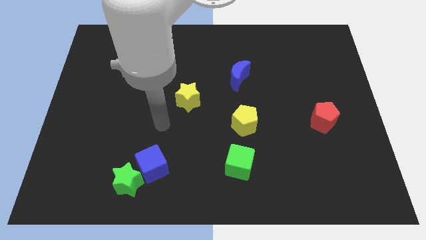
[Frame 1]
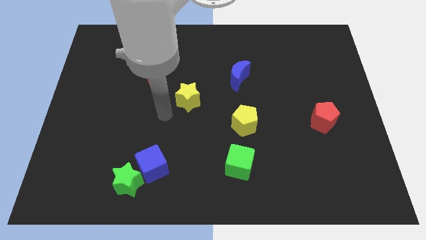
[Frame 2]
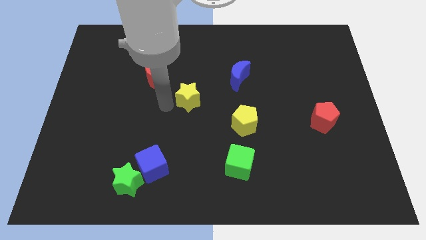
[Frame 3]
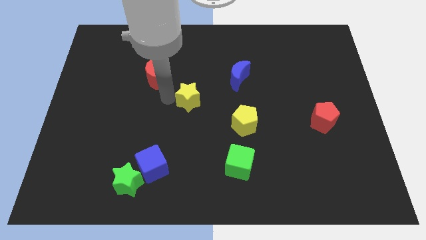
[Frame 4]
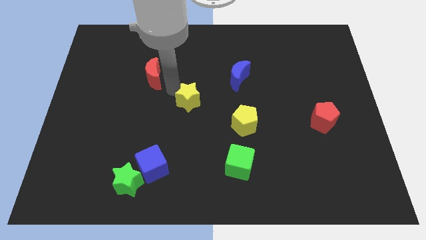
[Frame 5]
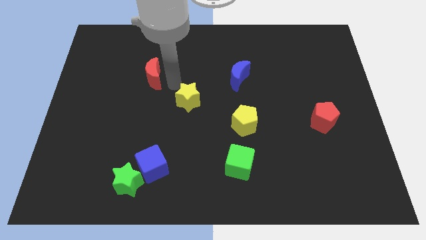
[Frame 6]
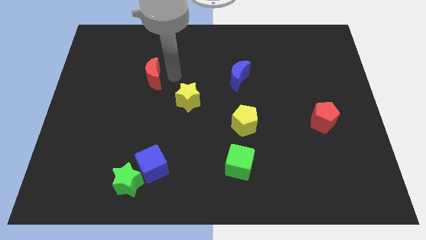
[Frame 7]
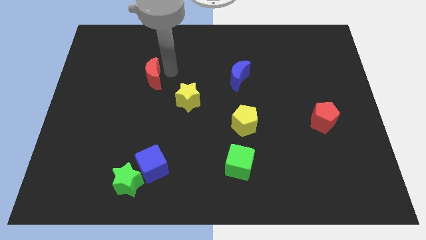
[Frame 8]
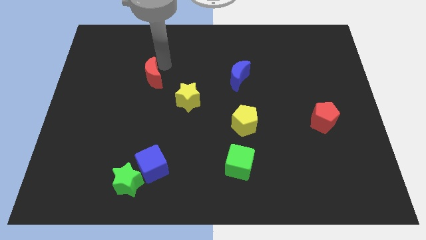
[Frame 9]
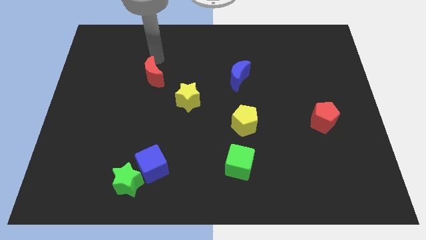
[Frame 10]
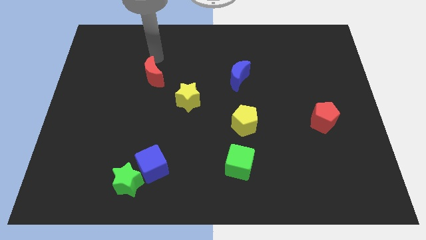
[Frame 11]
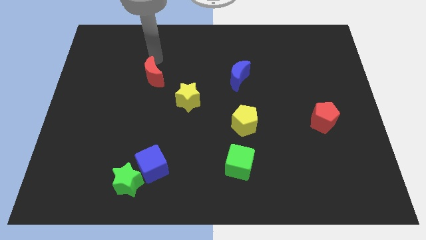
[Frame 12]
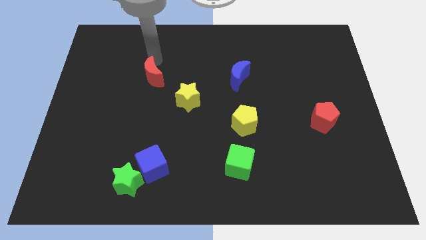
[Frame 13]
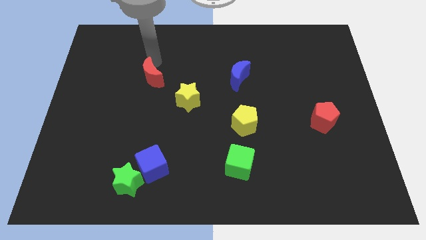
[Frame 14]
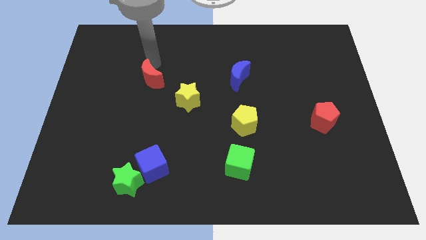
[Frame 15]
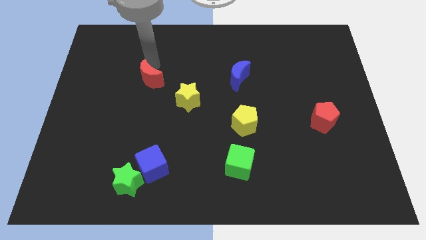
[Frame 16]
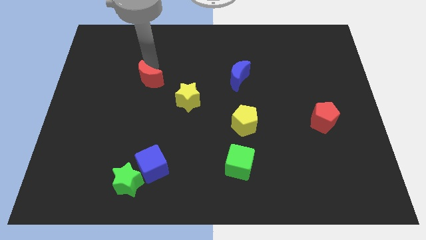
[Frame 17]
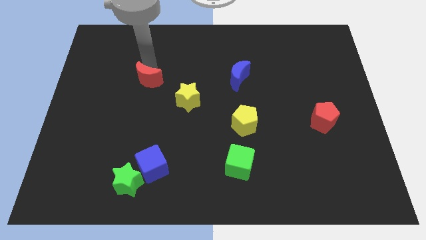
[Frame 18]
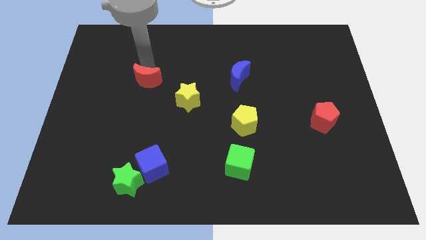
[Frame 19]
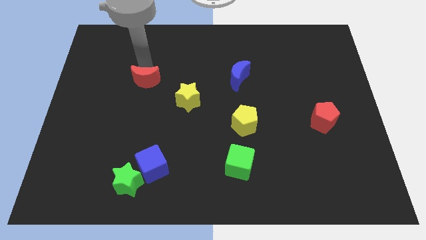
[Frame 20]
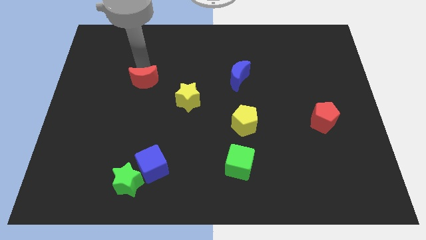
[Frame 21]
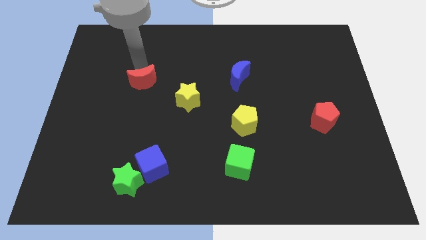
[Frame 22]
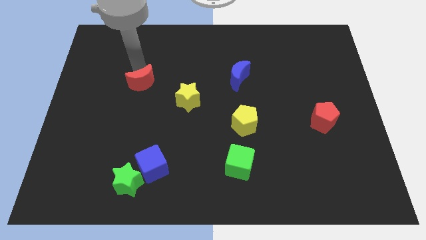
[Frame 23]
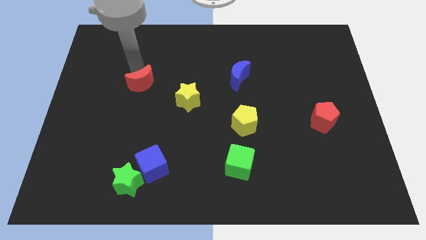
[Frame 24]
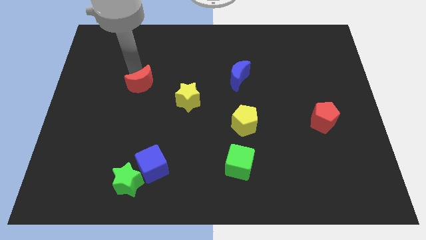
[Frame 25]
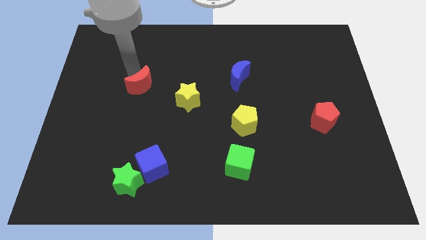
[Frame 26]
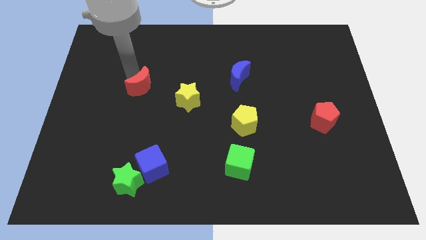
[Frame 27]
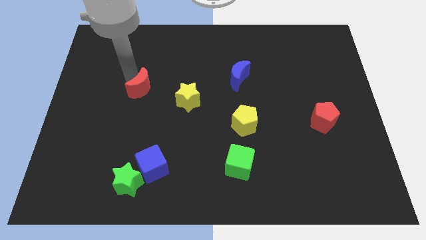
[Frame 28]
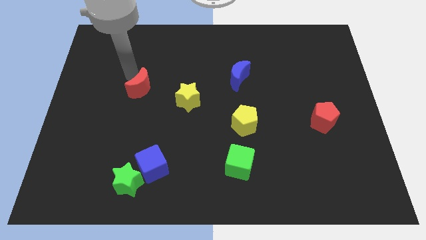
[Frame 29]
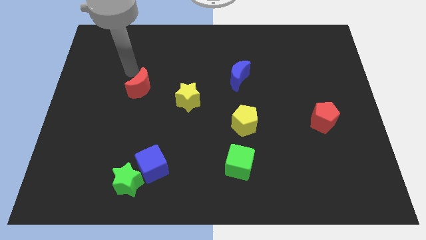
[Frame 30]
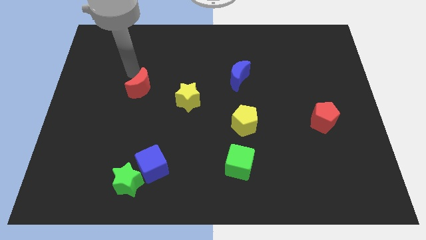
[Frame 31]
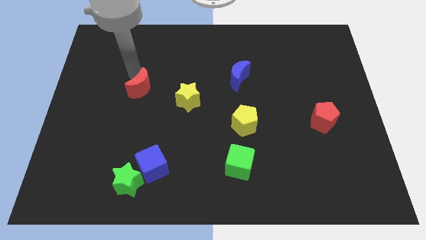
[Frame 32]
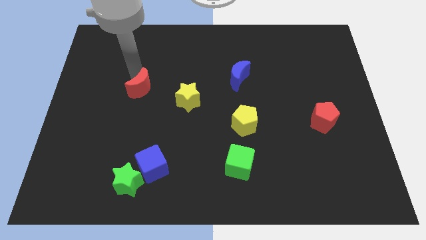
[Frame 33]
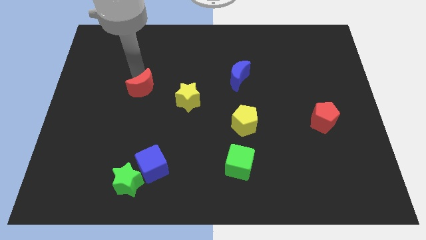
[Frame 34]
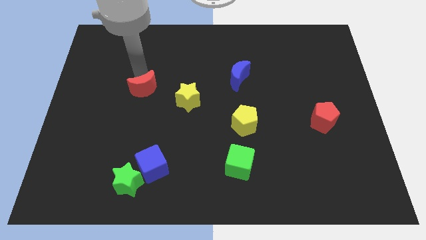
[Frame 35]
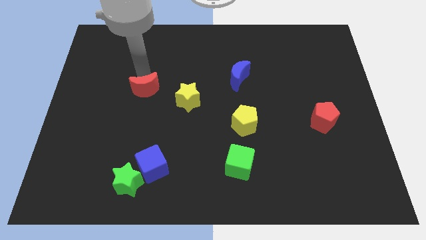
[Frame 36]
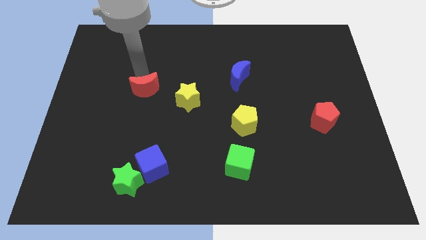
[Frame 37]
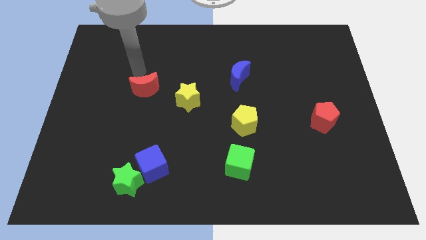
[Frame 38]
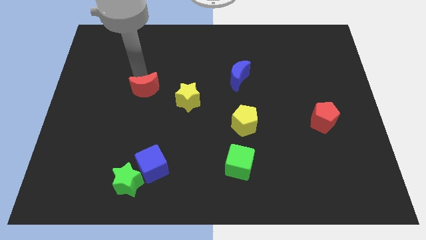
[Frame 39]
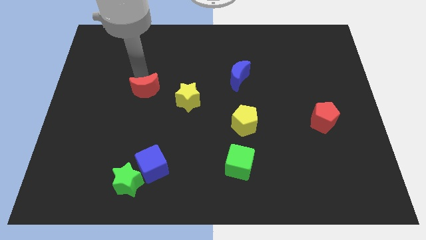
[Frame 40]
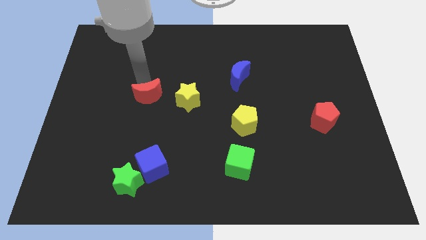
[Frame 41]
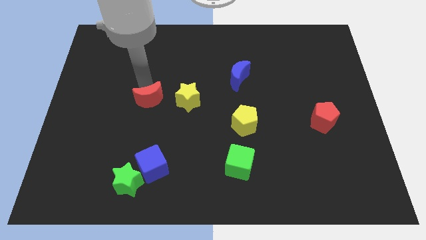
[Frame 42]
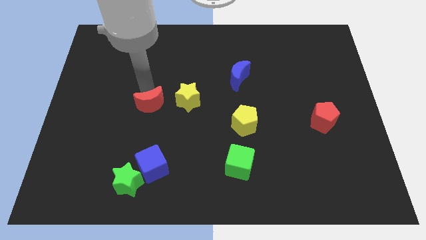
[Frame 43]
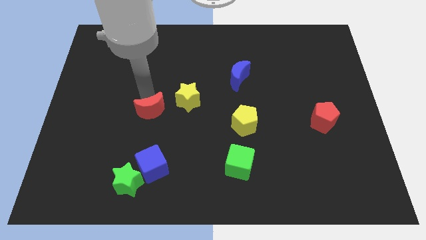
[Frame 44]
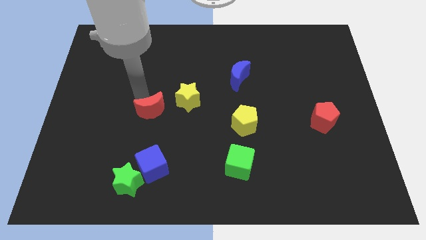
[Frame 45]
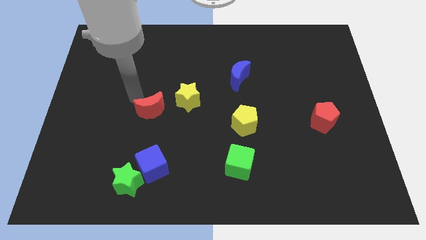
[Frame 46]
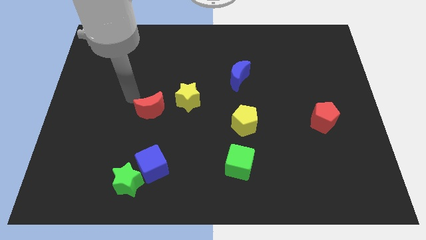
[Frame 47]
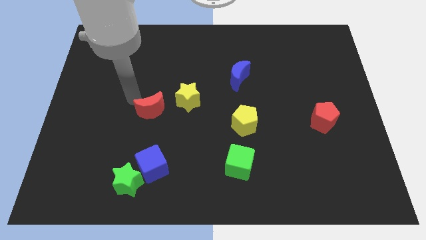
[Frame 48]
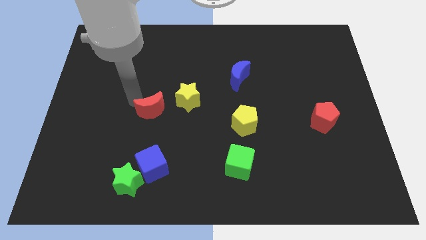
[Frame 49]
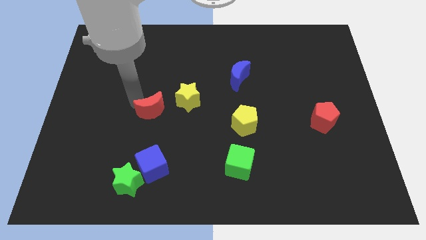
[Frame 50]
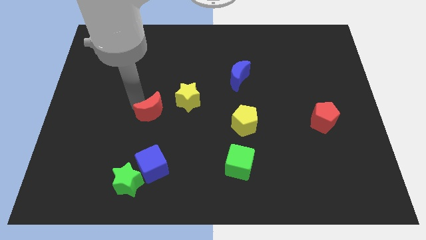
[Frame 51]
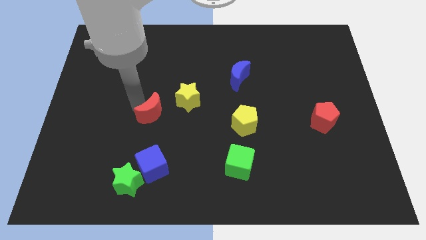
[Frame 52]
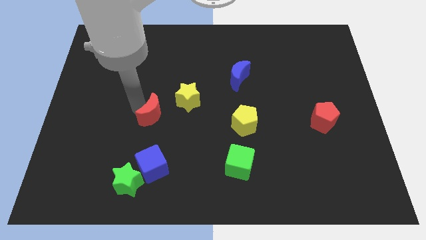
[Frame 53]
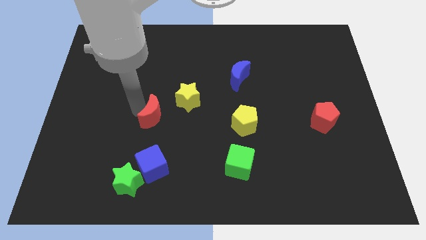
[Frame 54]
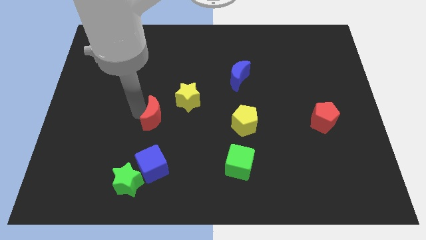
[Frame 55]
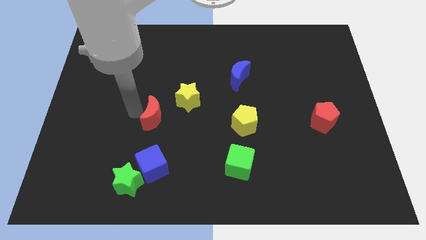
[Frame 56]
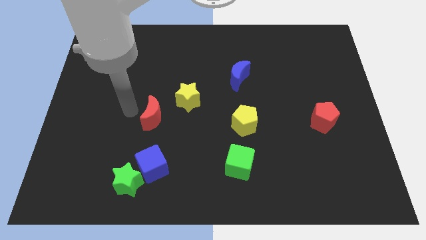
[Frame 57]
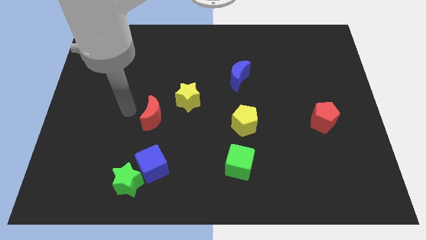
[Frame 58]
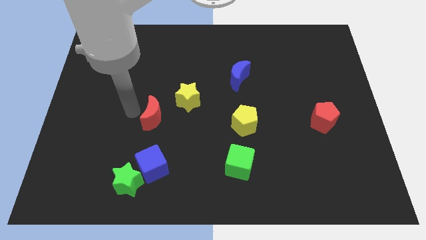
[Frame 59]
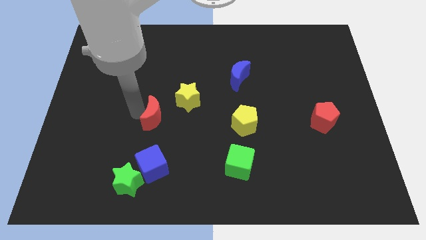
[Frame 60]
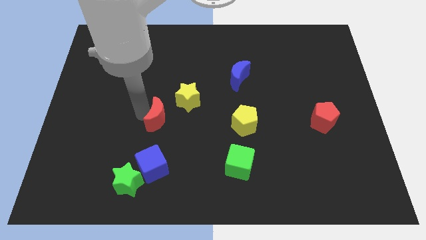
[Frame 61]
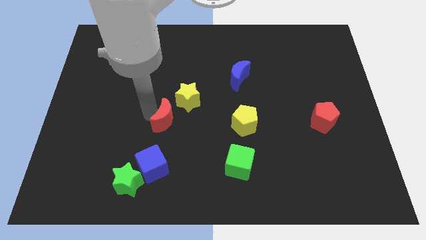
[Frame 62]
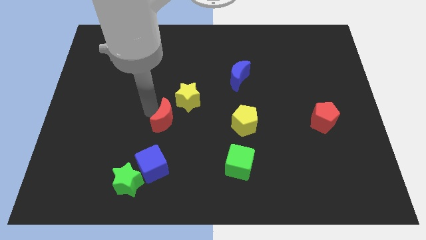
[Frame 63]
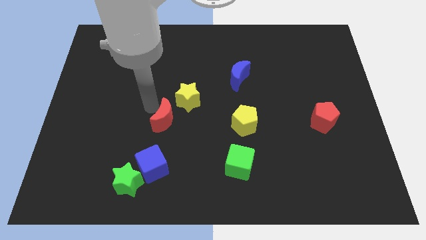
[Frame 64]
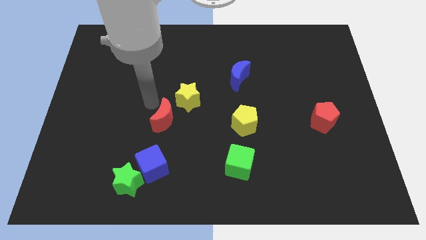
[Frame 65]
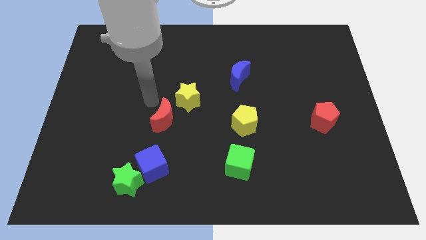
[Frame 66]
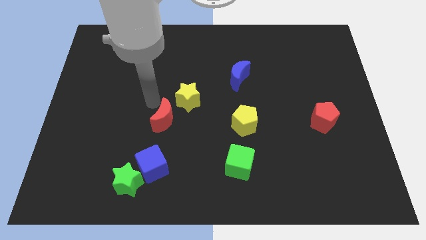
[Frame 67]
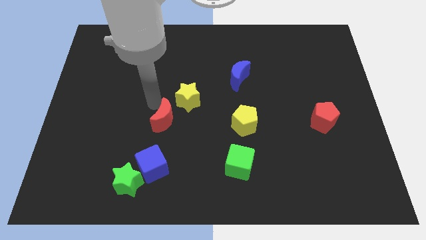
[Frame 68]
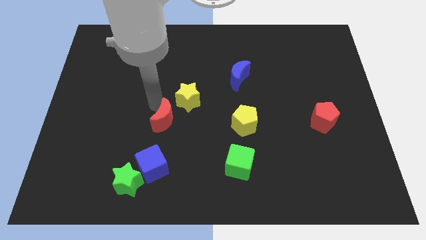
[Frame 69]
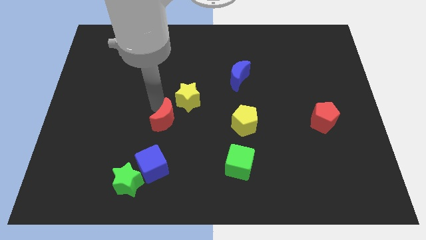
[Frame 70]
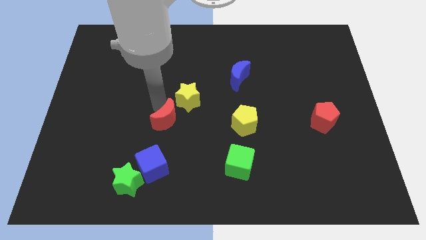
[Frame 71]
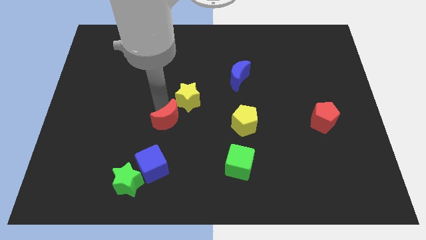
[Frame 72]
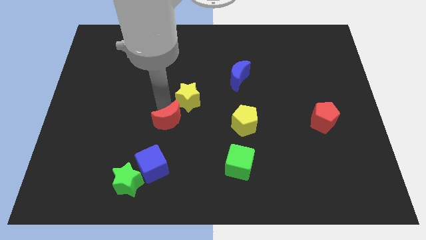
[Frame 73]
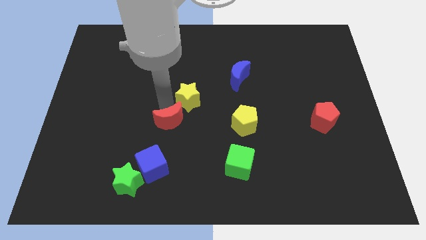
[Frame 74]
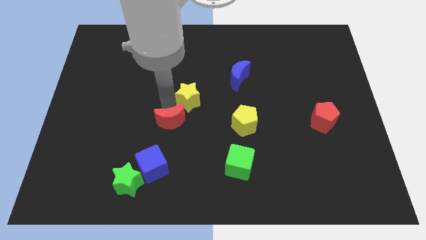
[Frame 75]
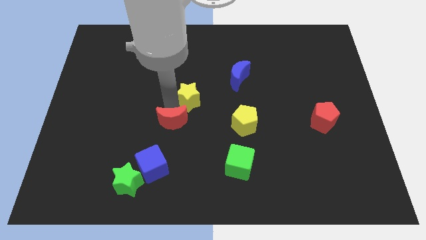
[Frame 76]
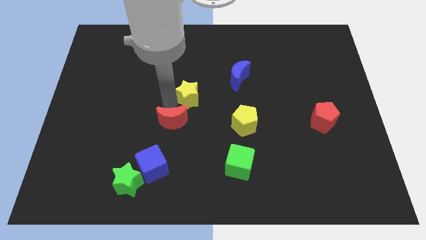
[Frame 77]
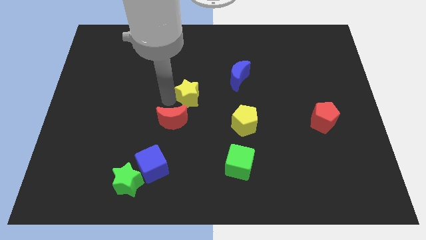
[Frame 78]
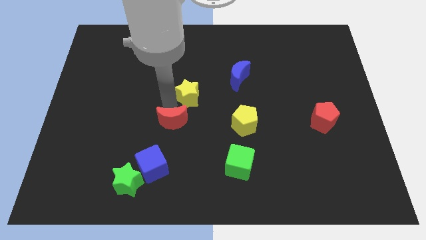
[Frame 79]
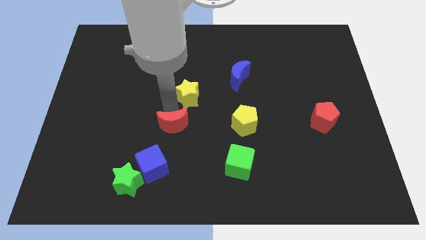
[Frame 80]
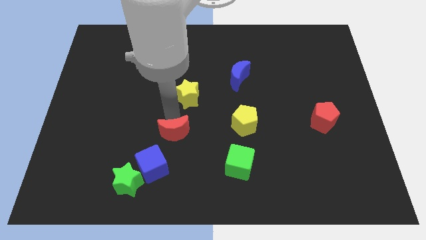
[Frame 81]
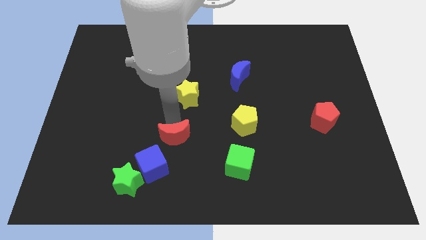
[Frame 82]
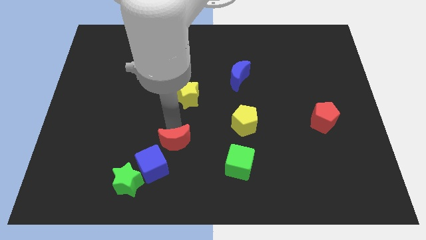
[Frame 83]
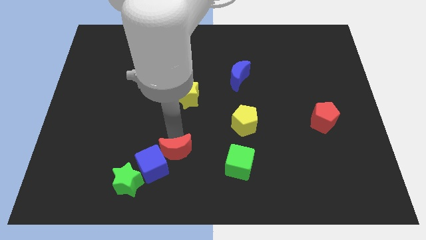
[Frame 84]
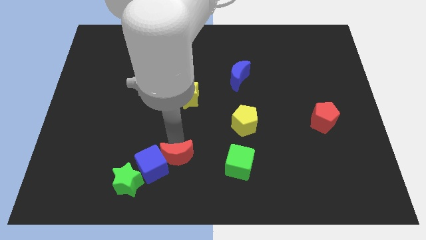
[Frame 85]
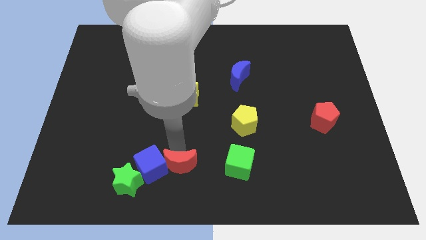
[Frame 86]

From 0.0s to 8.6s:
move the red moon to the right of the green star
